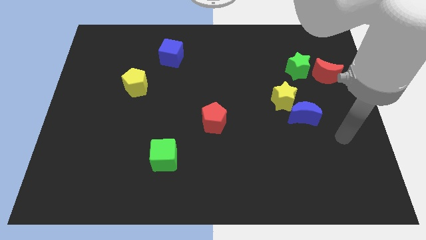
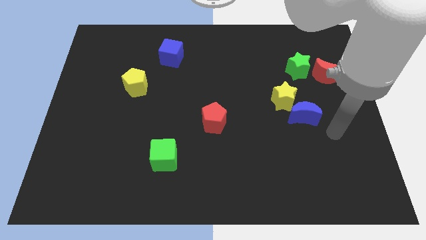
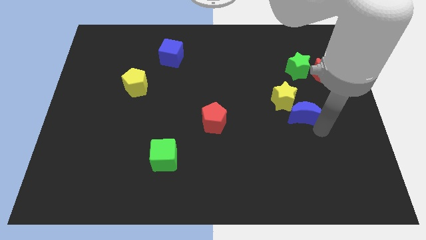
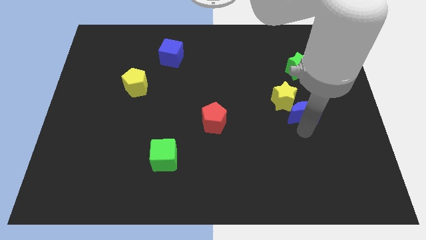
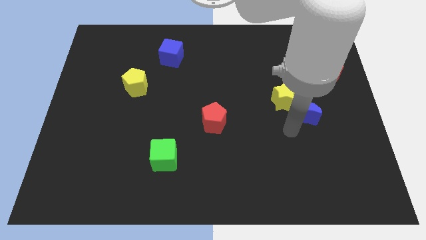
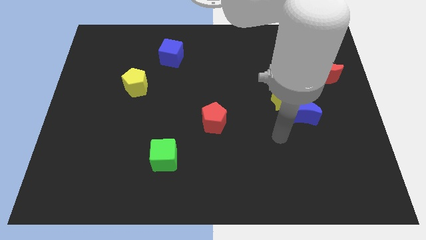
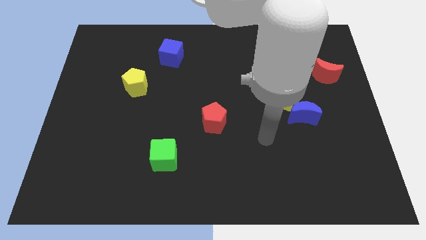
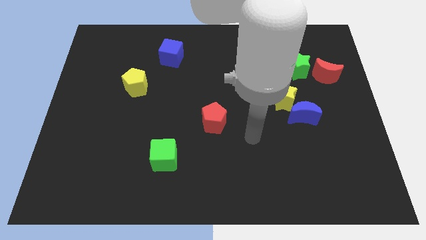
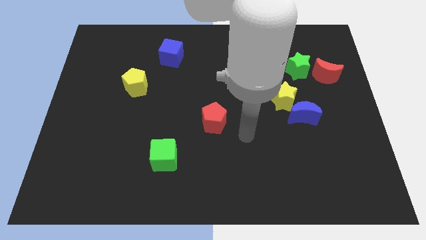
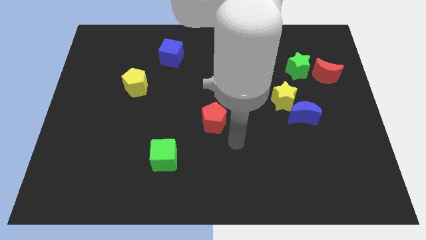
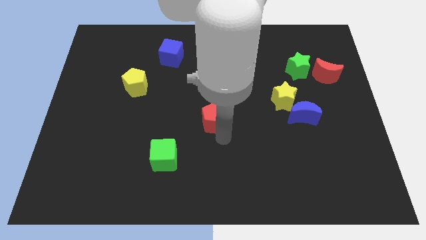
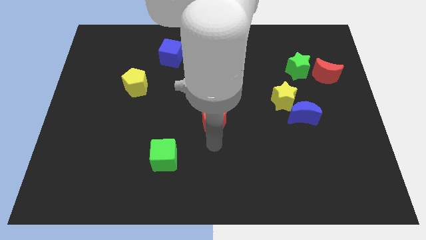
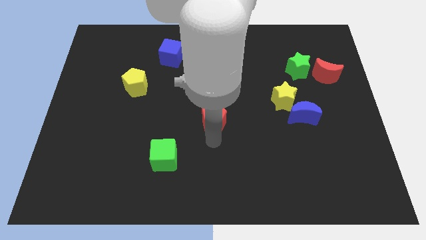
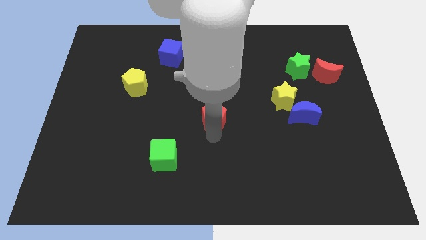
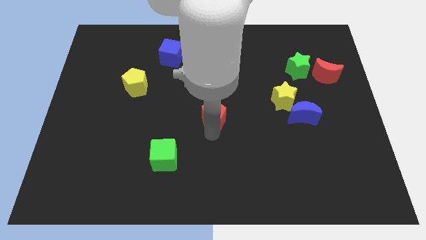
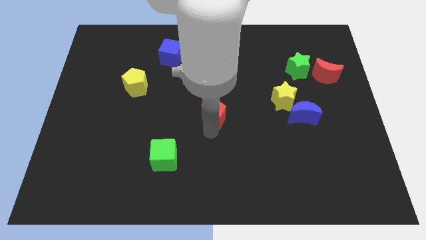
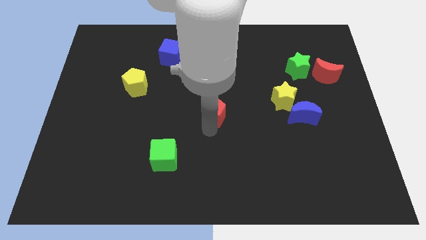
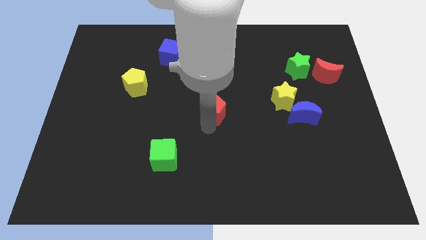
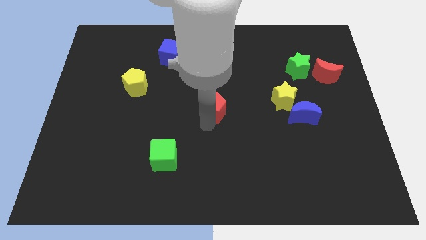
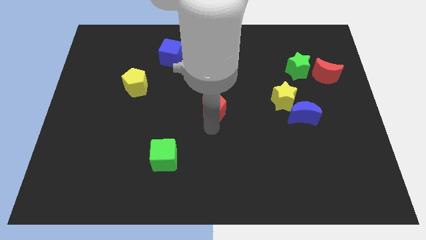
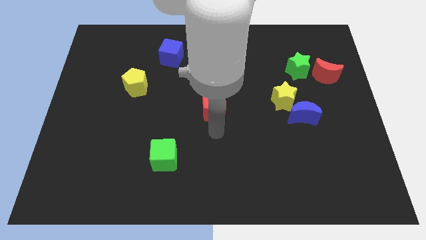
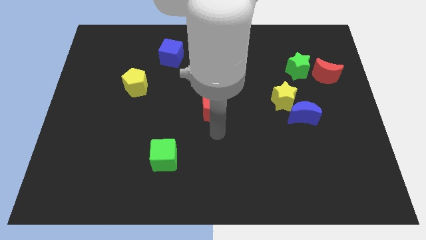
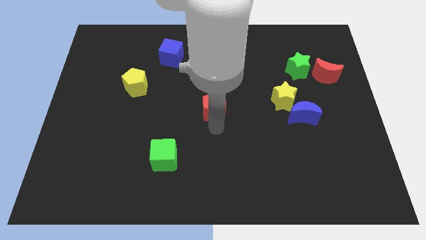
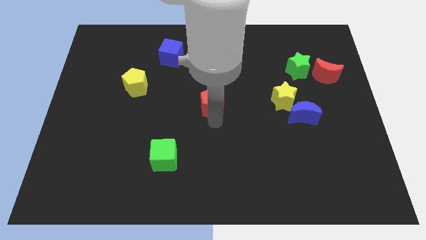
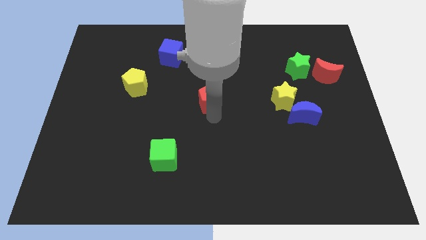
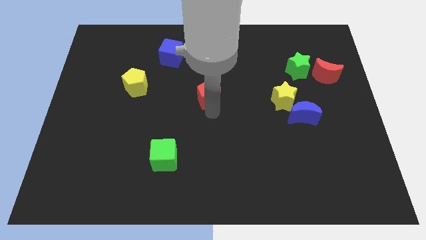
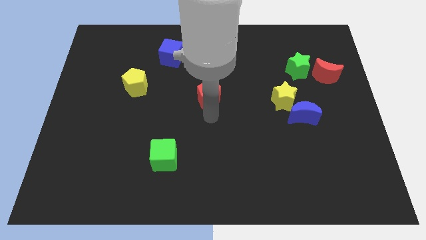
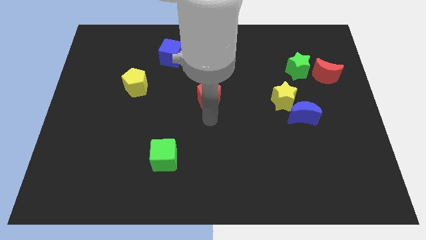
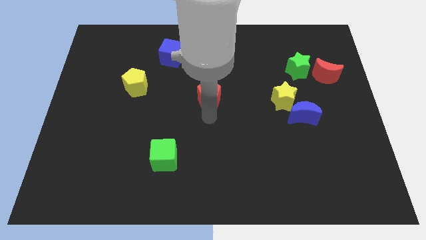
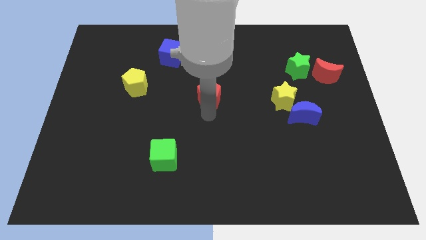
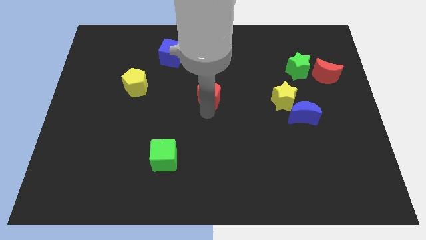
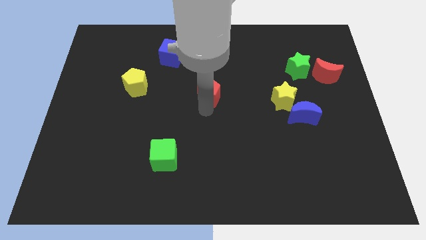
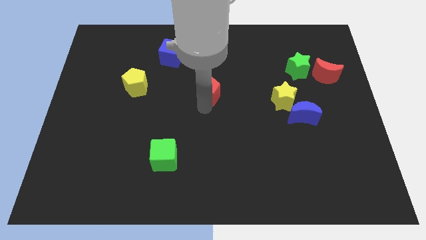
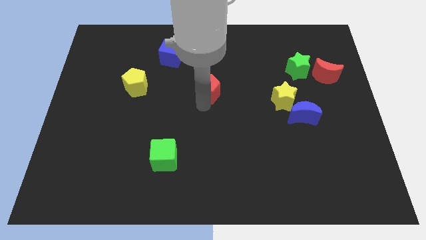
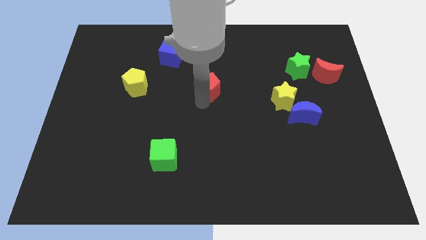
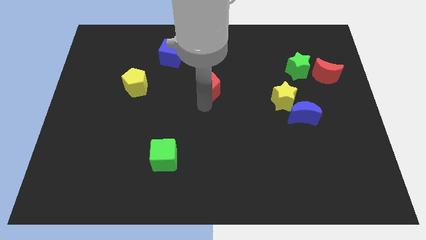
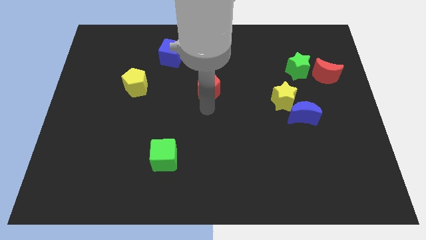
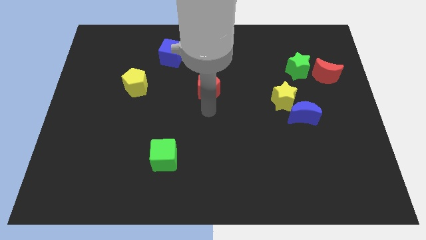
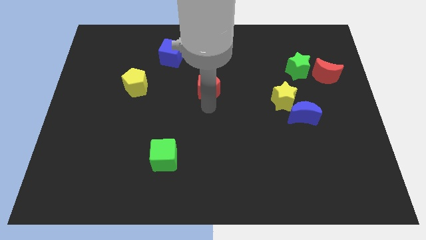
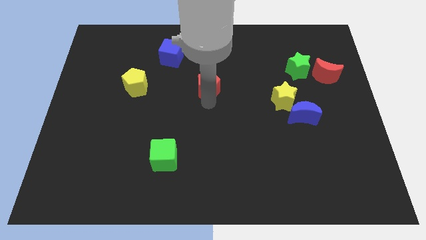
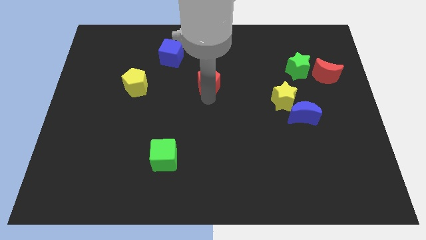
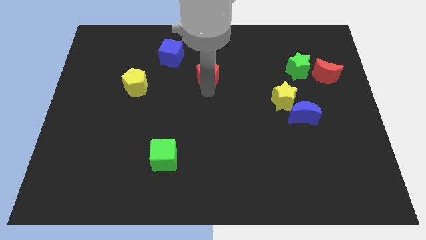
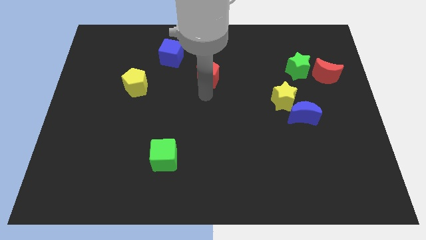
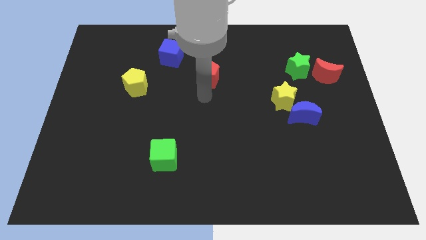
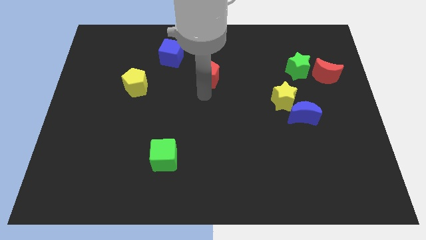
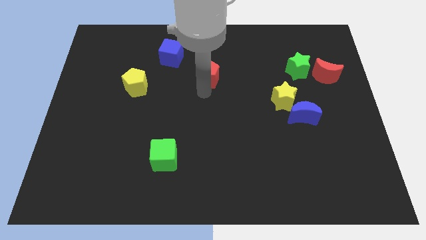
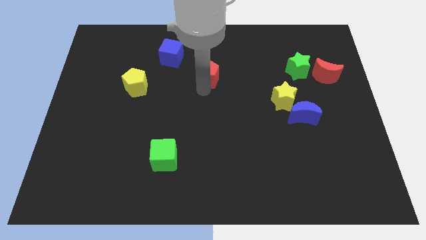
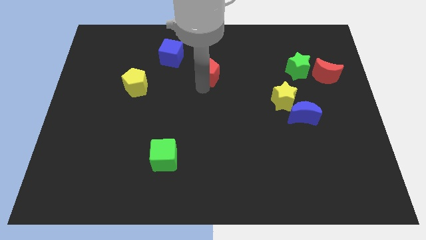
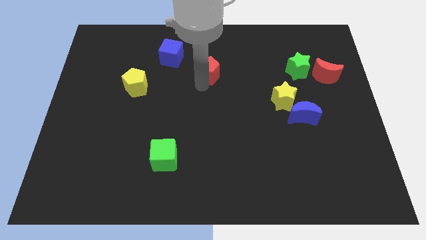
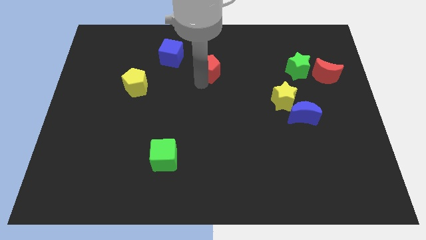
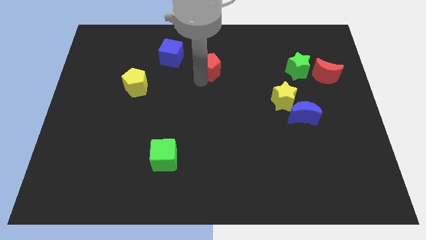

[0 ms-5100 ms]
put the red pentagon to the right side of the blue cube

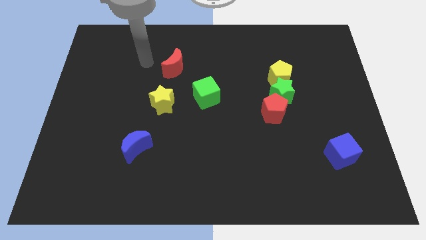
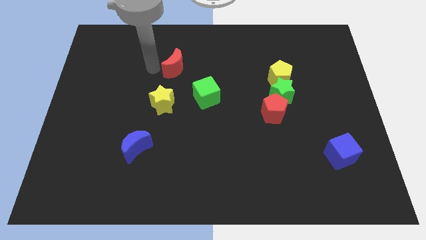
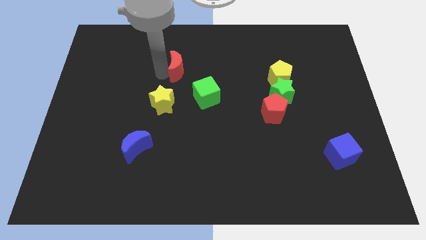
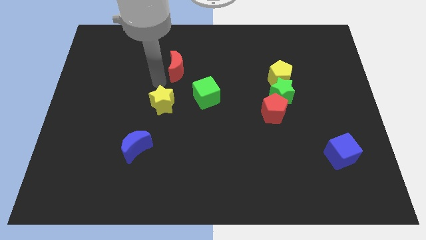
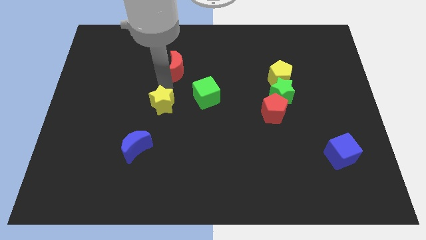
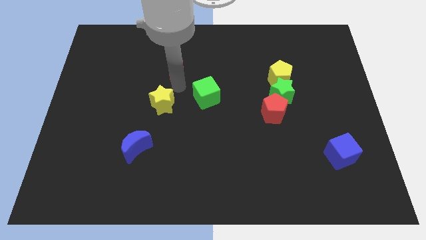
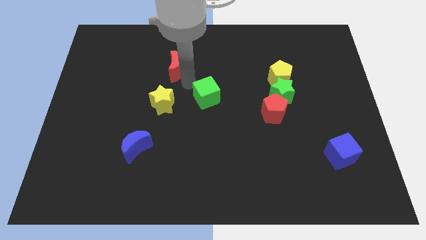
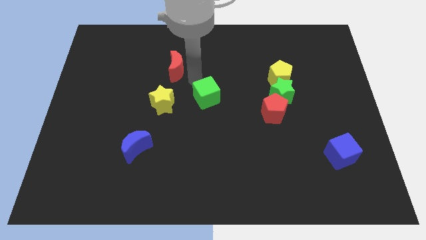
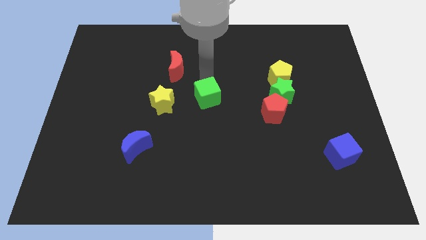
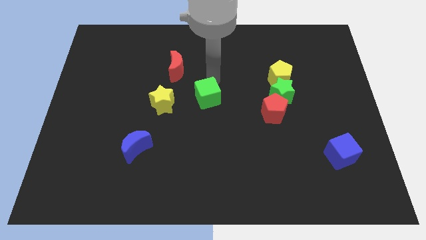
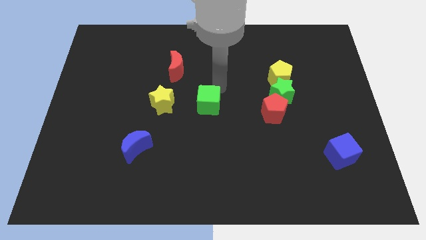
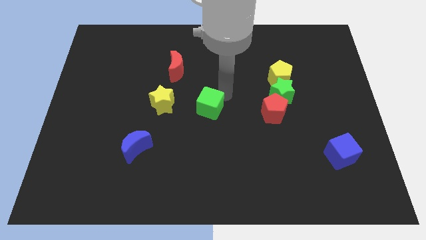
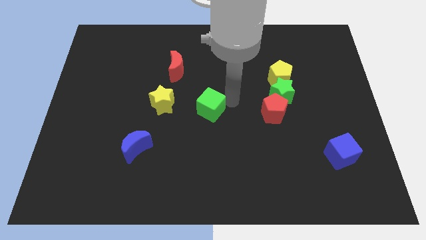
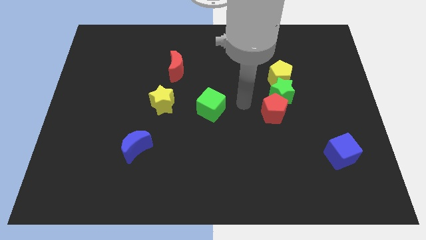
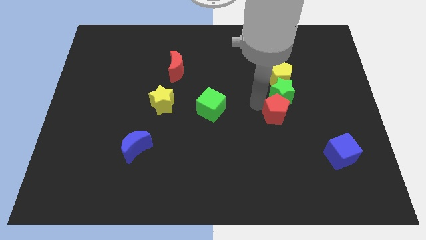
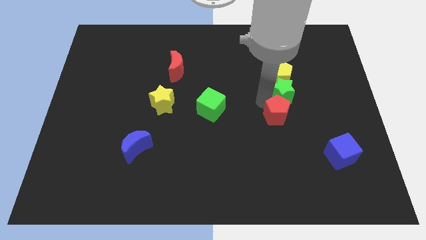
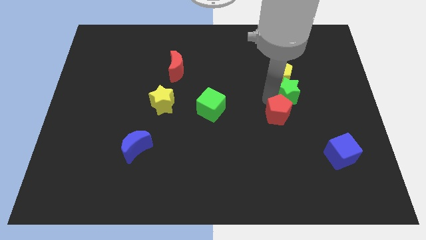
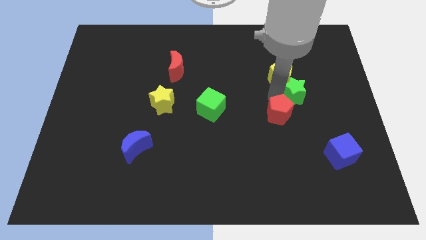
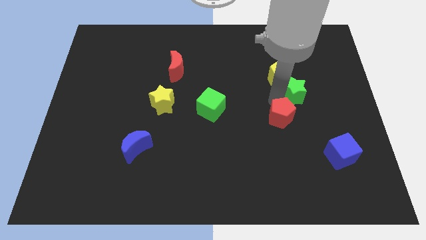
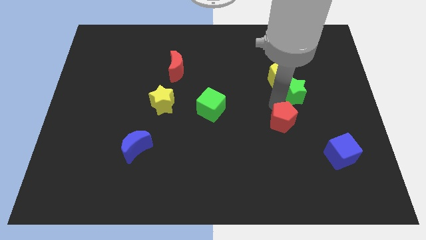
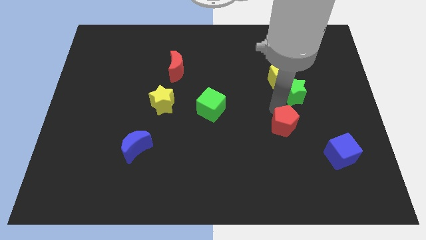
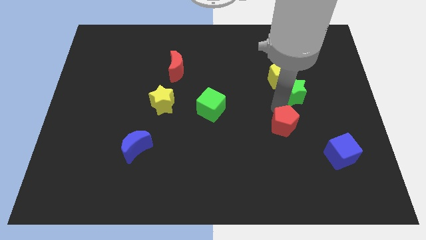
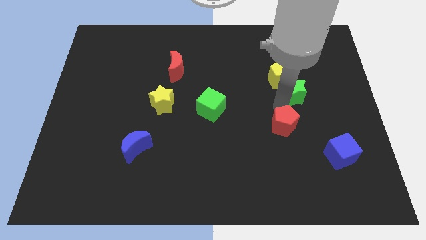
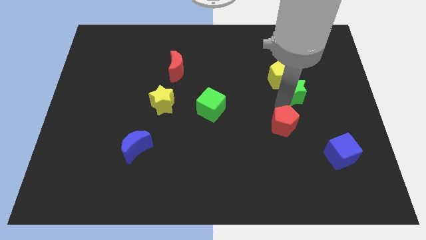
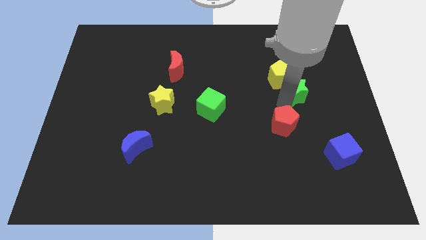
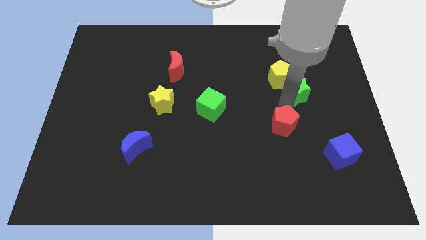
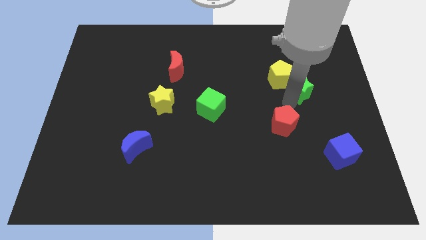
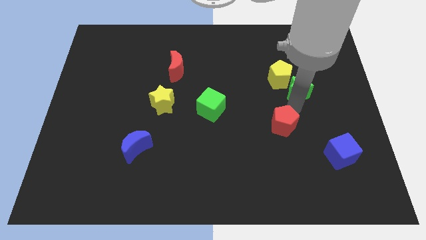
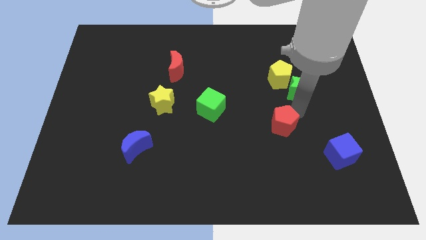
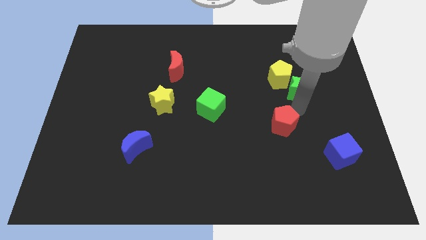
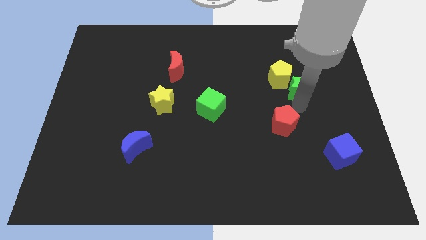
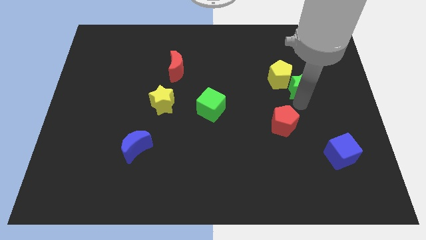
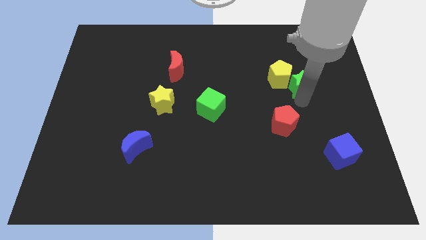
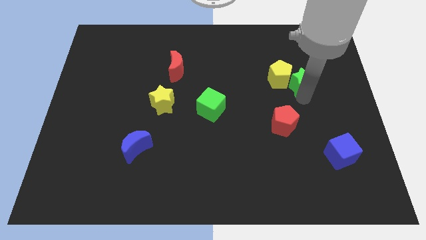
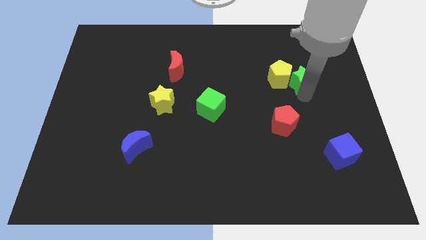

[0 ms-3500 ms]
slide the green star diagonally up and to the right of the yellow pentagon
